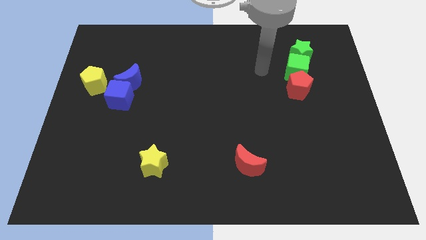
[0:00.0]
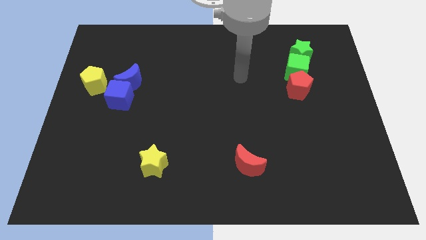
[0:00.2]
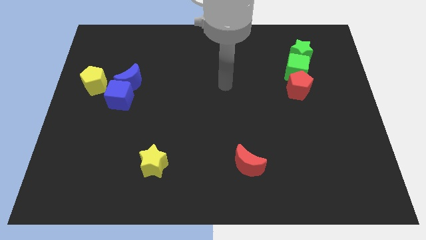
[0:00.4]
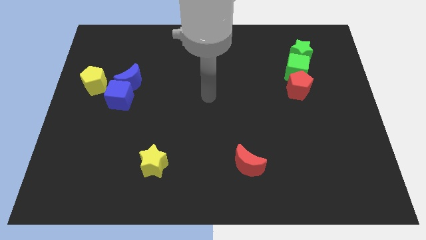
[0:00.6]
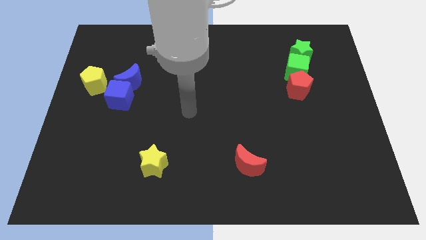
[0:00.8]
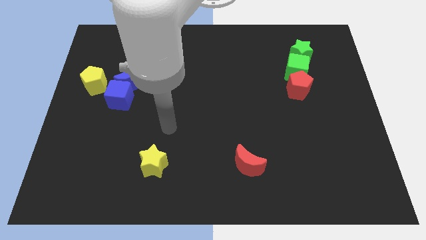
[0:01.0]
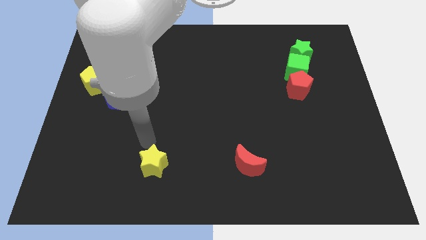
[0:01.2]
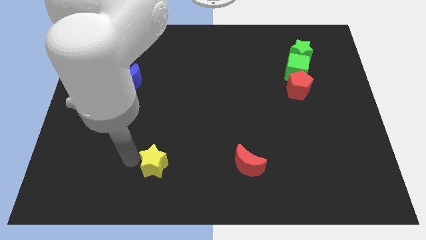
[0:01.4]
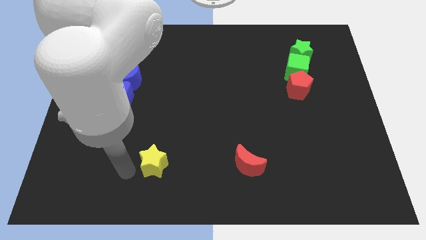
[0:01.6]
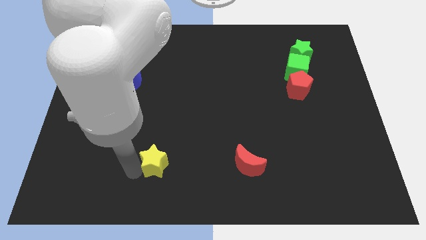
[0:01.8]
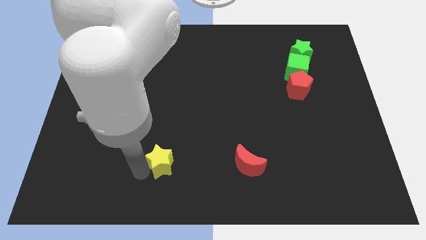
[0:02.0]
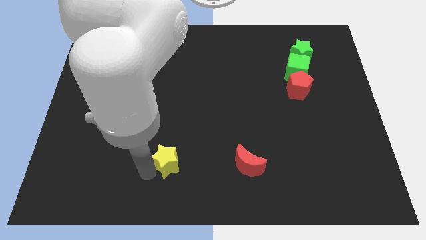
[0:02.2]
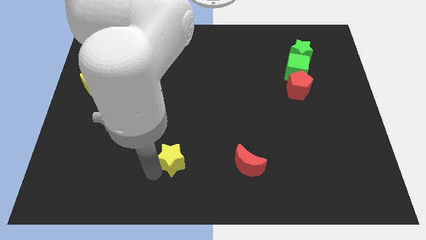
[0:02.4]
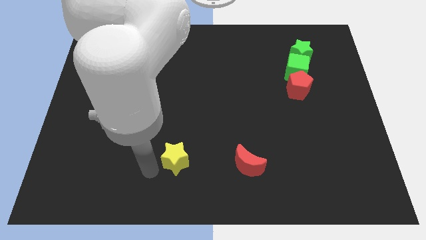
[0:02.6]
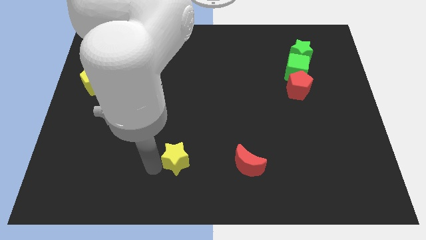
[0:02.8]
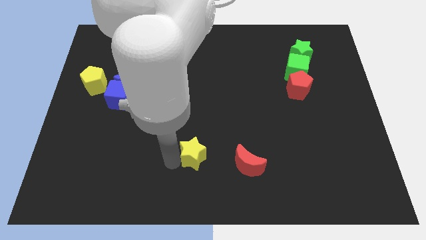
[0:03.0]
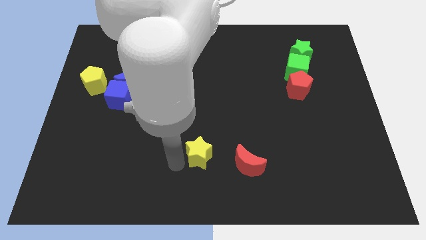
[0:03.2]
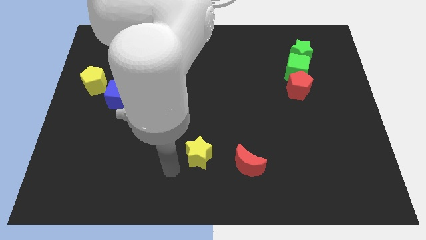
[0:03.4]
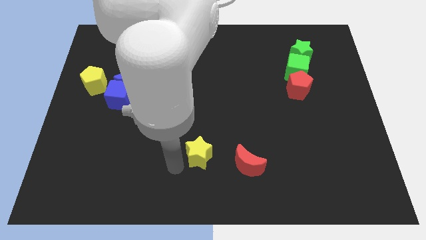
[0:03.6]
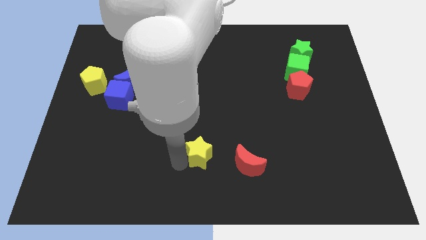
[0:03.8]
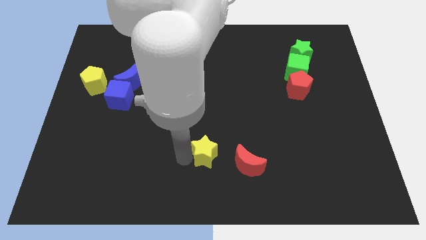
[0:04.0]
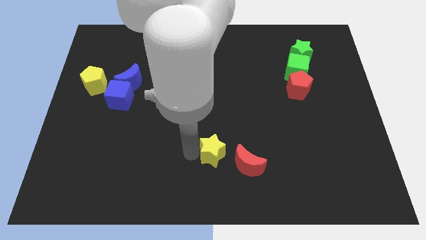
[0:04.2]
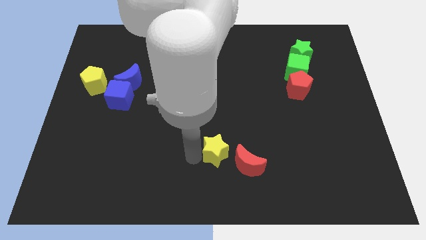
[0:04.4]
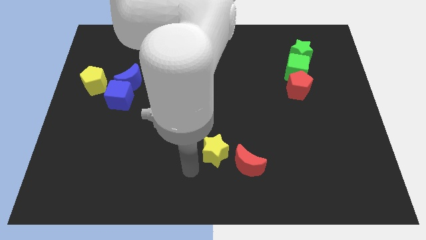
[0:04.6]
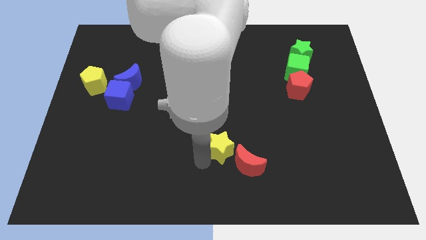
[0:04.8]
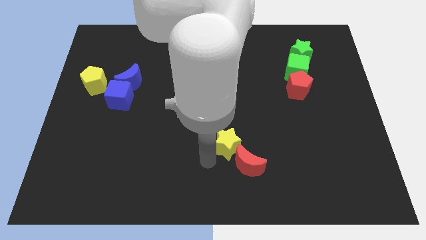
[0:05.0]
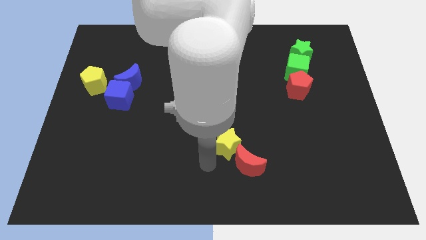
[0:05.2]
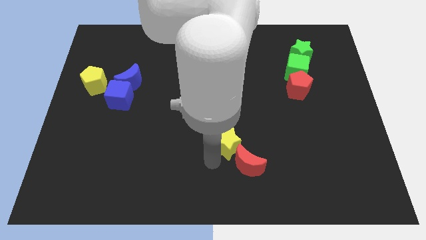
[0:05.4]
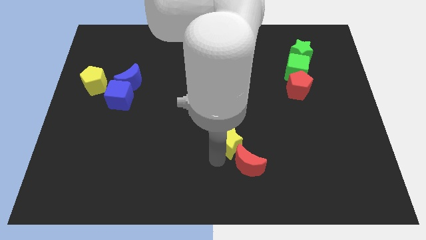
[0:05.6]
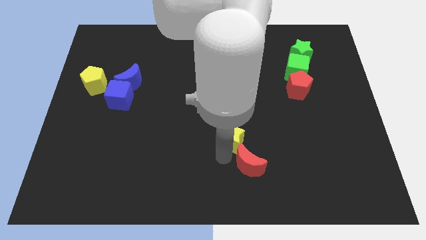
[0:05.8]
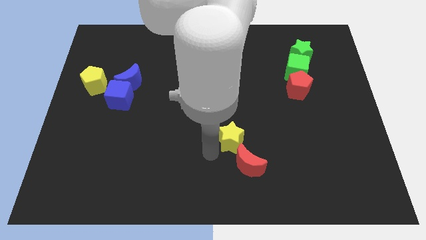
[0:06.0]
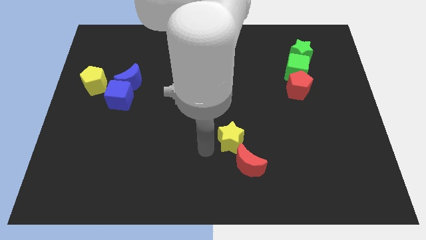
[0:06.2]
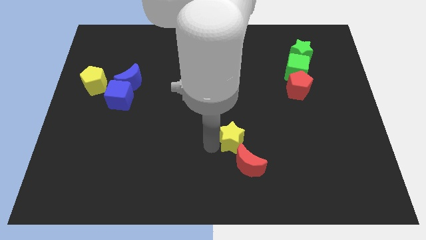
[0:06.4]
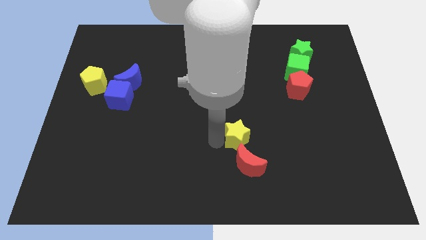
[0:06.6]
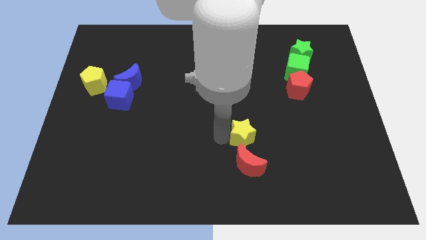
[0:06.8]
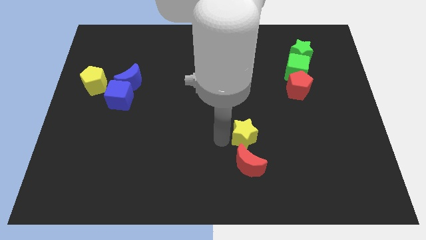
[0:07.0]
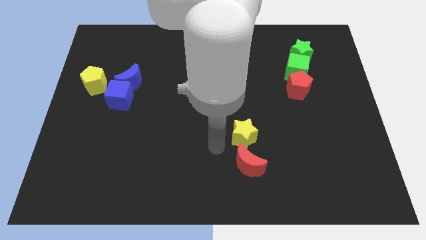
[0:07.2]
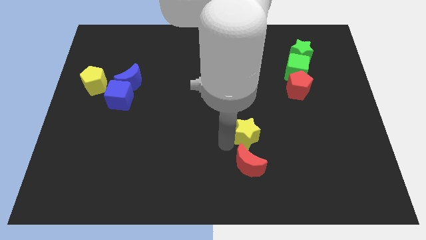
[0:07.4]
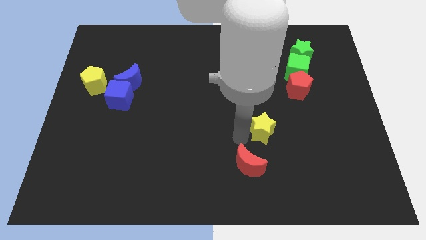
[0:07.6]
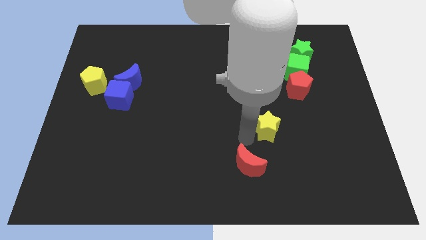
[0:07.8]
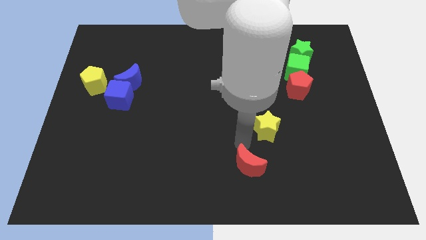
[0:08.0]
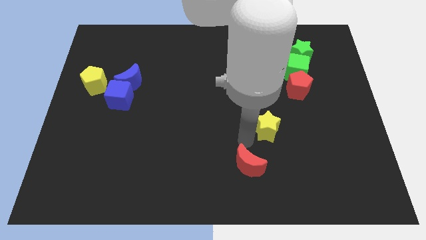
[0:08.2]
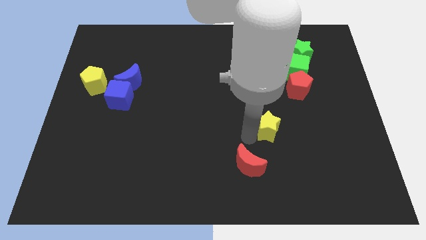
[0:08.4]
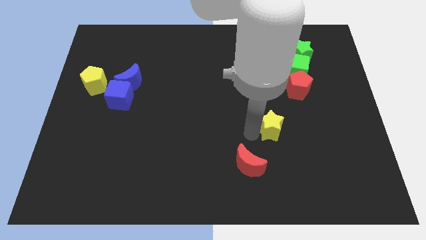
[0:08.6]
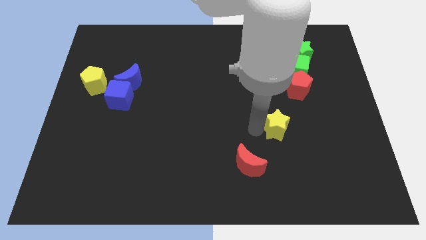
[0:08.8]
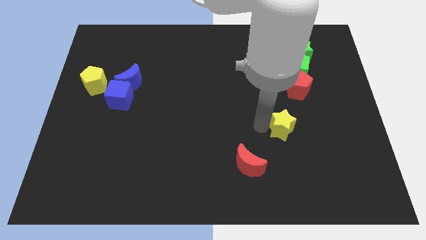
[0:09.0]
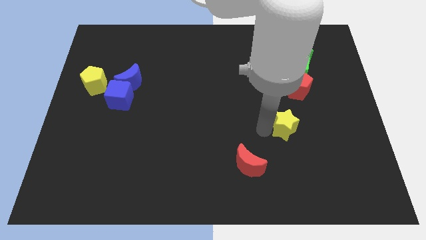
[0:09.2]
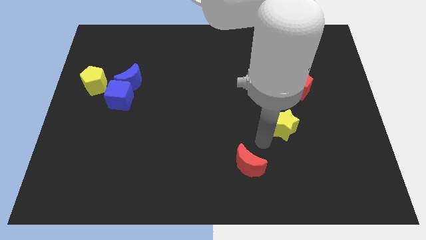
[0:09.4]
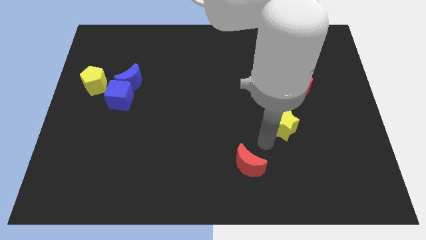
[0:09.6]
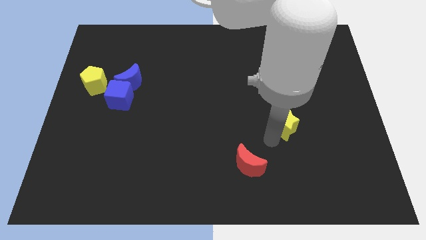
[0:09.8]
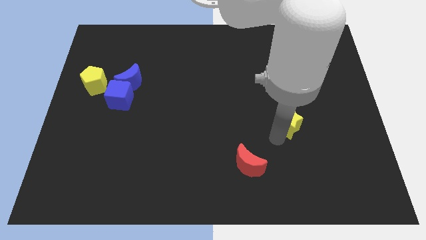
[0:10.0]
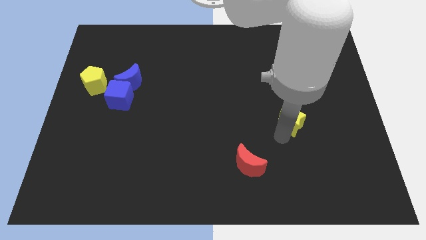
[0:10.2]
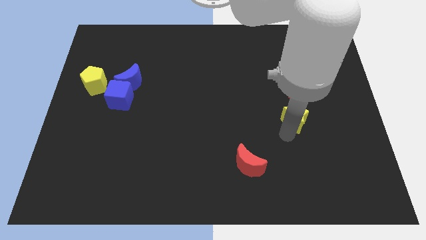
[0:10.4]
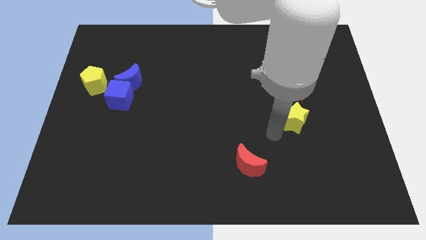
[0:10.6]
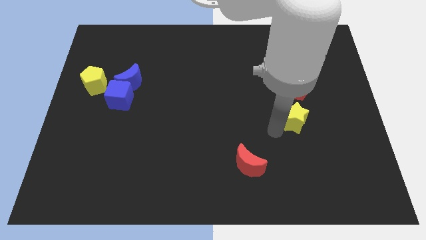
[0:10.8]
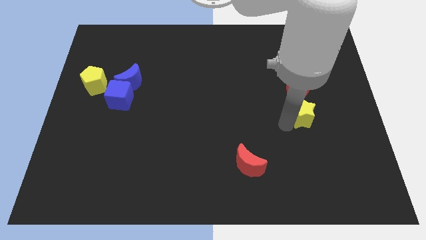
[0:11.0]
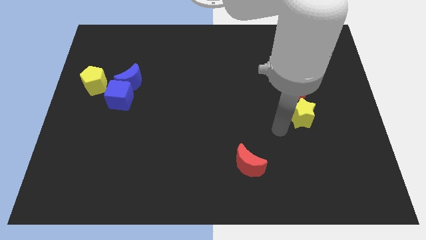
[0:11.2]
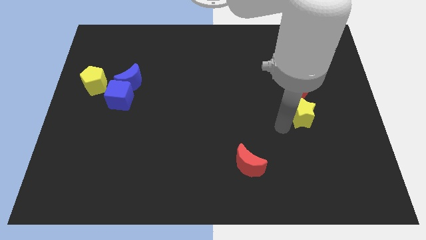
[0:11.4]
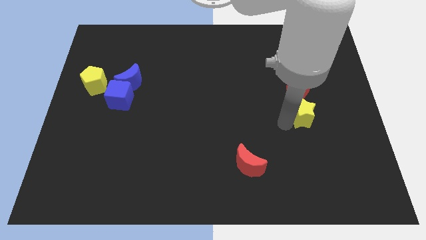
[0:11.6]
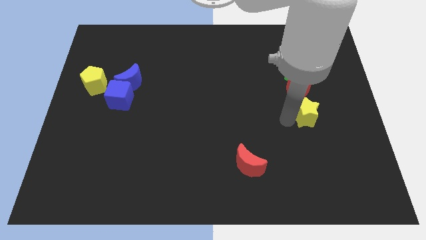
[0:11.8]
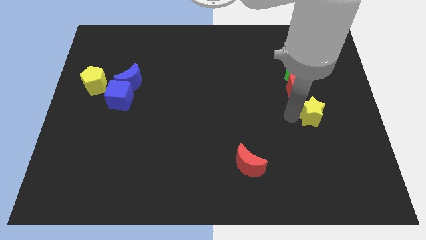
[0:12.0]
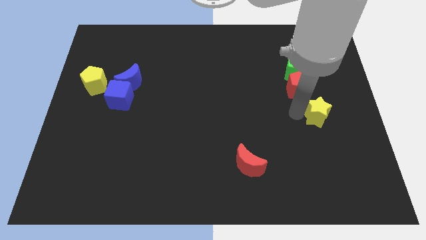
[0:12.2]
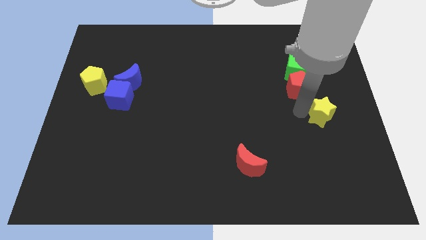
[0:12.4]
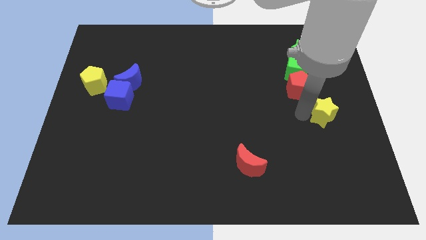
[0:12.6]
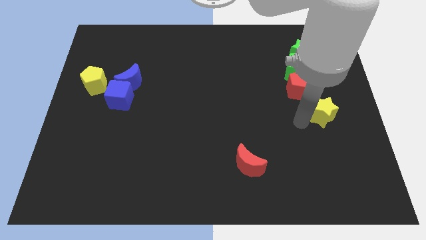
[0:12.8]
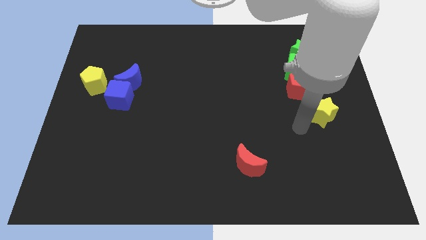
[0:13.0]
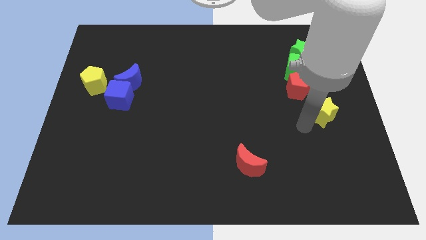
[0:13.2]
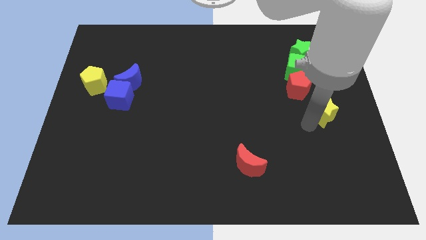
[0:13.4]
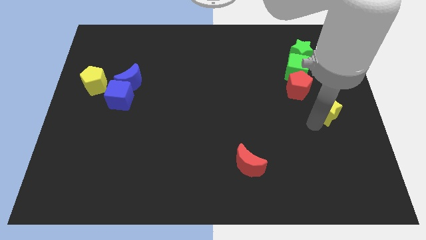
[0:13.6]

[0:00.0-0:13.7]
put the yellow star to the center right
